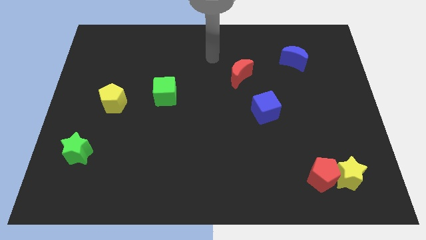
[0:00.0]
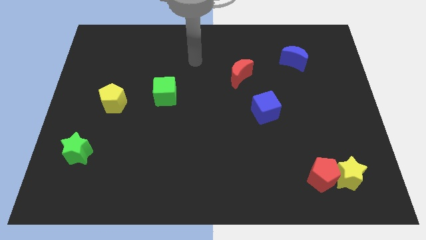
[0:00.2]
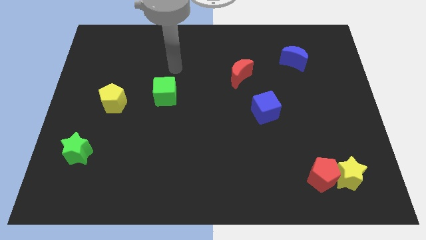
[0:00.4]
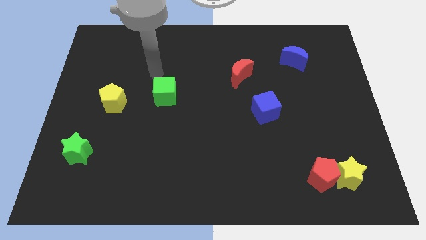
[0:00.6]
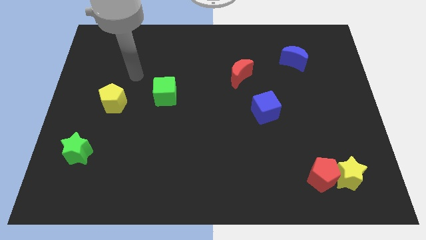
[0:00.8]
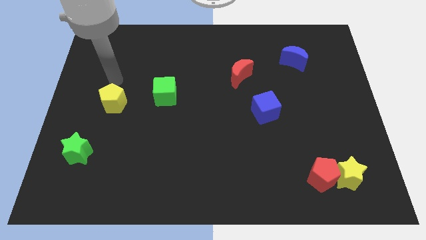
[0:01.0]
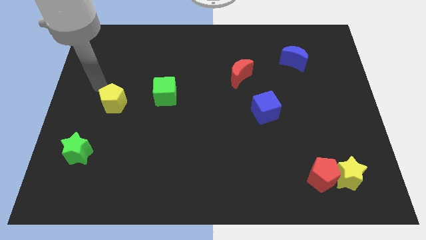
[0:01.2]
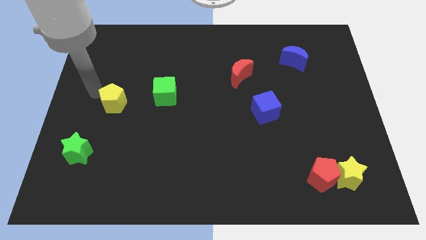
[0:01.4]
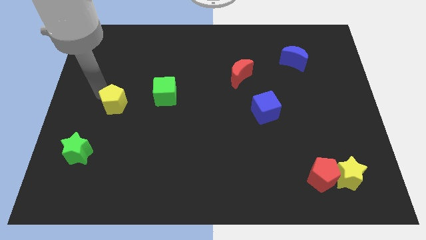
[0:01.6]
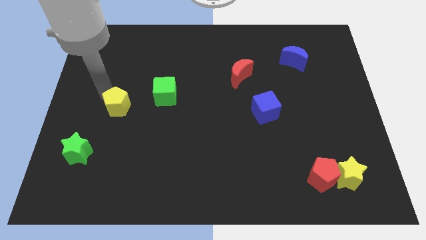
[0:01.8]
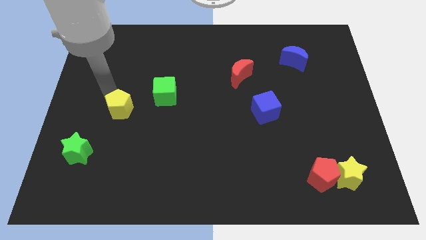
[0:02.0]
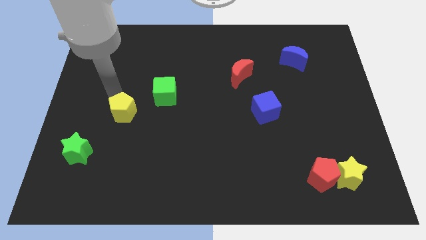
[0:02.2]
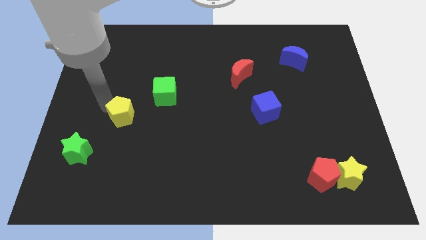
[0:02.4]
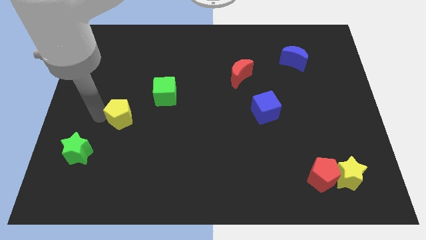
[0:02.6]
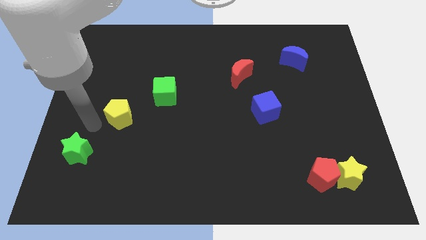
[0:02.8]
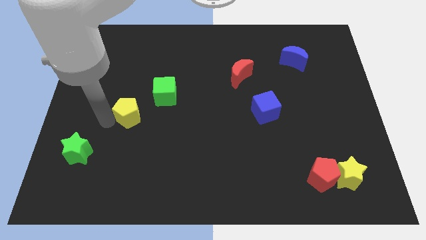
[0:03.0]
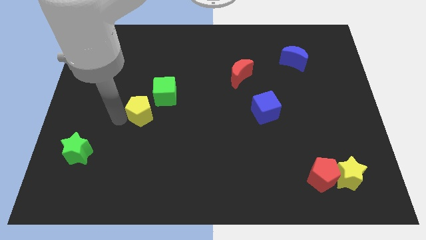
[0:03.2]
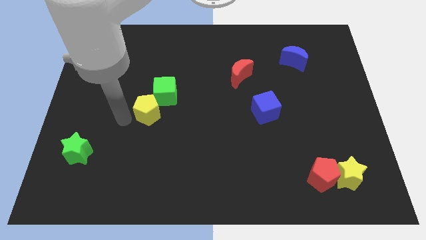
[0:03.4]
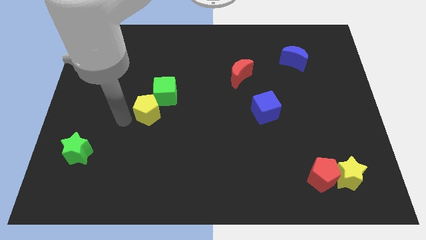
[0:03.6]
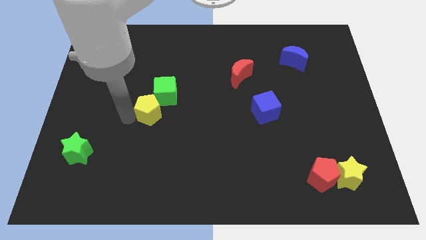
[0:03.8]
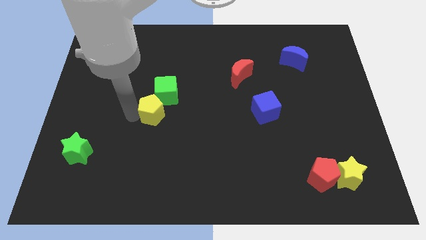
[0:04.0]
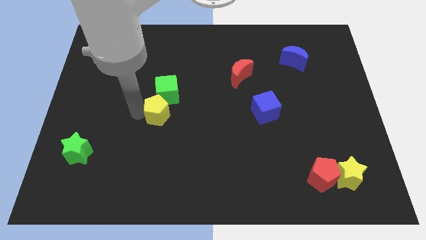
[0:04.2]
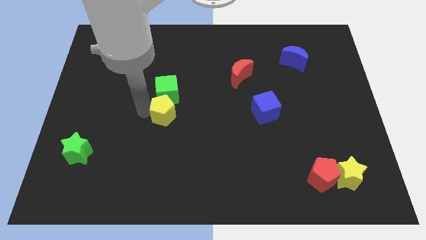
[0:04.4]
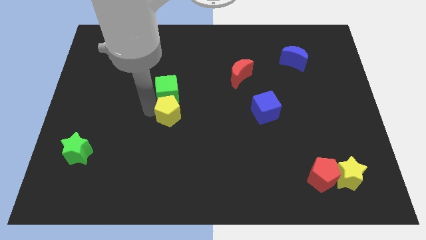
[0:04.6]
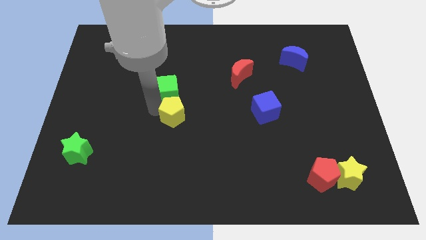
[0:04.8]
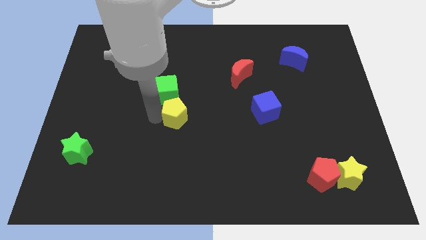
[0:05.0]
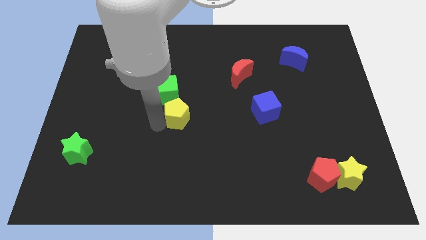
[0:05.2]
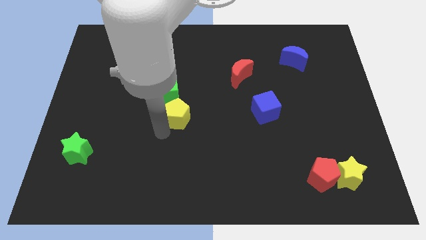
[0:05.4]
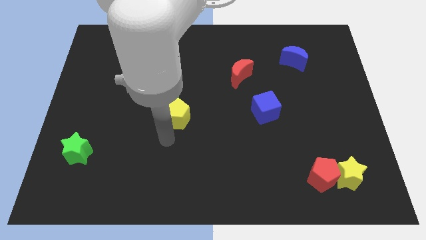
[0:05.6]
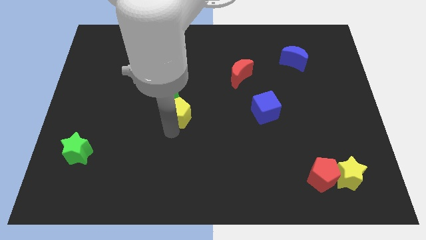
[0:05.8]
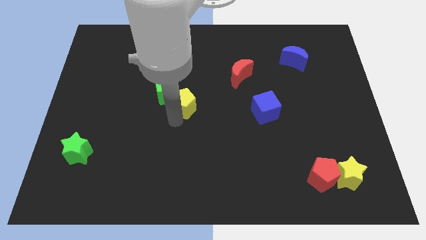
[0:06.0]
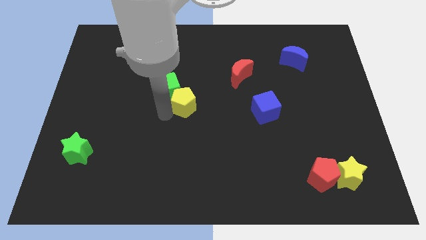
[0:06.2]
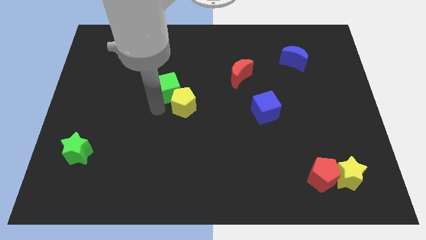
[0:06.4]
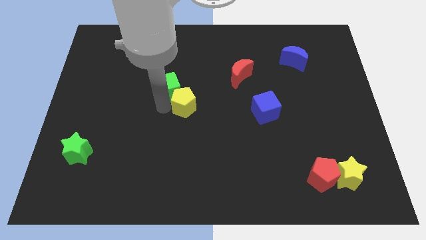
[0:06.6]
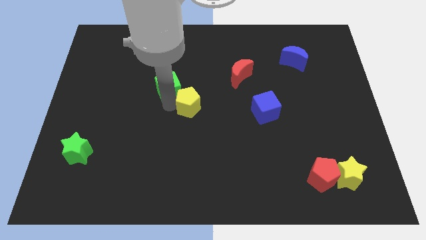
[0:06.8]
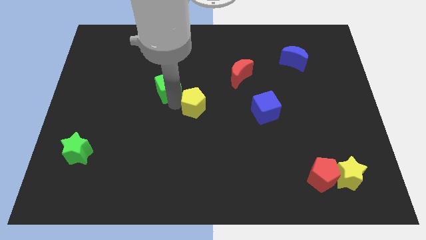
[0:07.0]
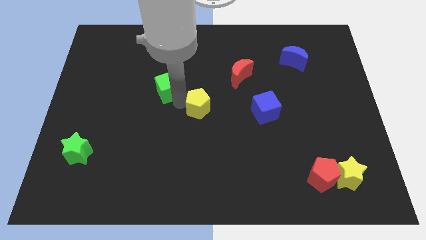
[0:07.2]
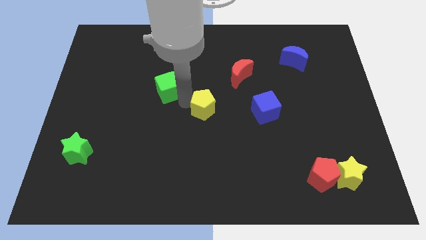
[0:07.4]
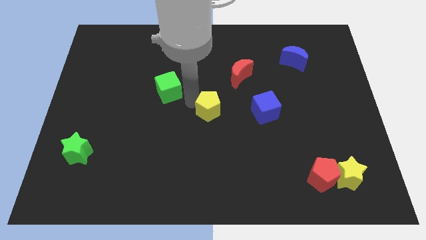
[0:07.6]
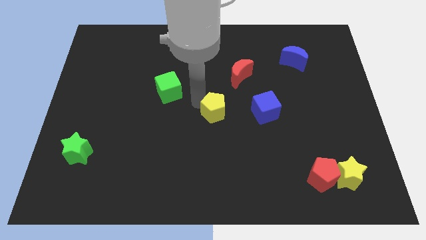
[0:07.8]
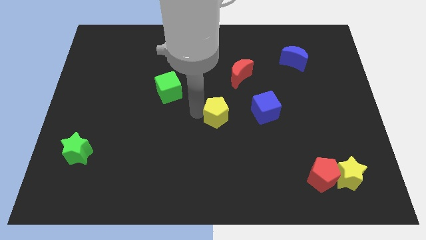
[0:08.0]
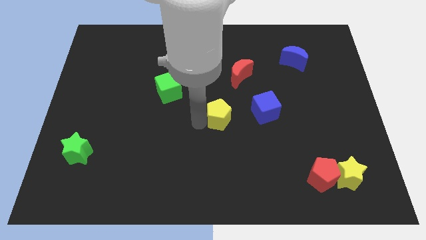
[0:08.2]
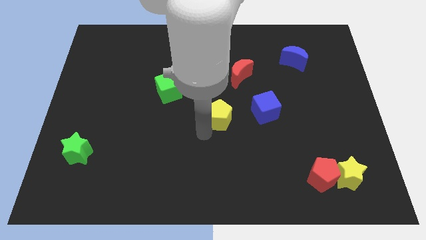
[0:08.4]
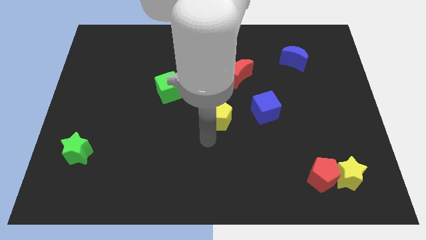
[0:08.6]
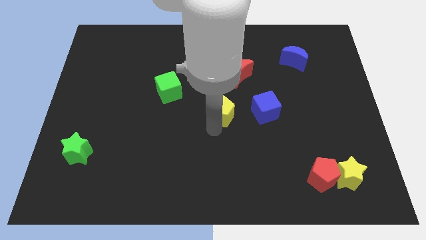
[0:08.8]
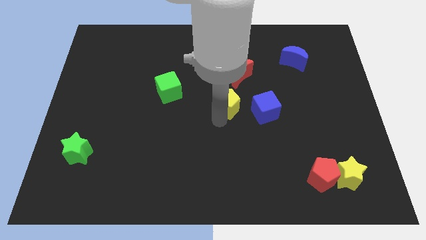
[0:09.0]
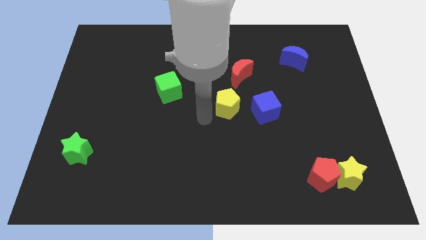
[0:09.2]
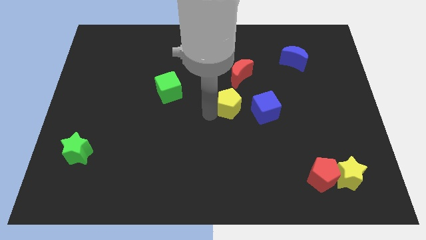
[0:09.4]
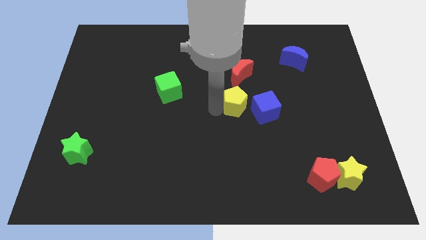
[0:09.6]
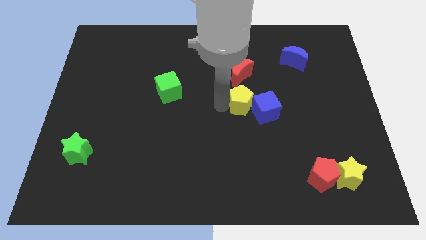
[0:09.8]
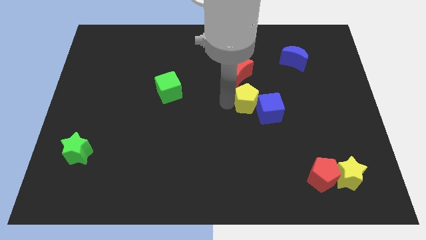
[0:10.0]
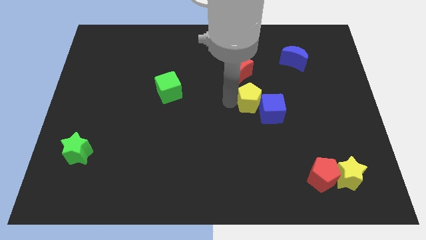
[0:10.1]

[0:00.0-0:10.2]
put the yellow pentagon to the bottom right of the red moon

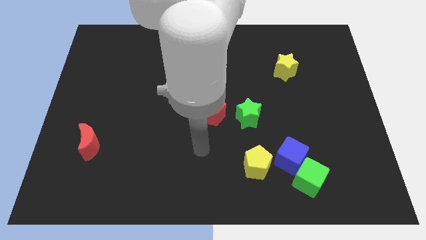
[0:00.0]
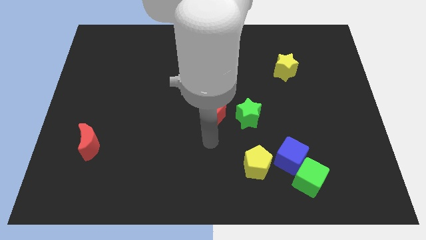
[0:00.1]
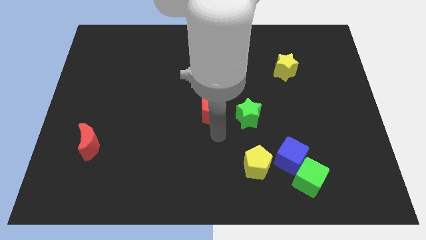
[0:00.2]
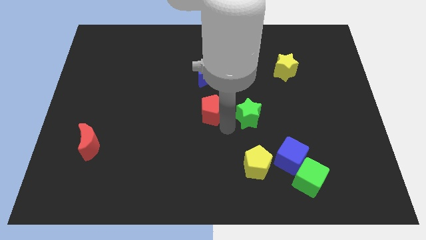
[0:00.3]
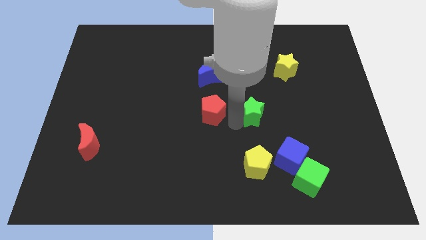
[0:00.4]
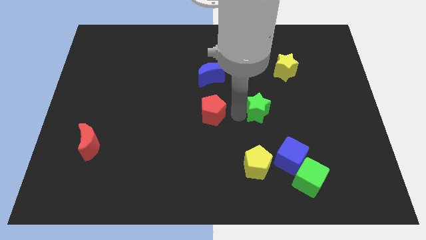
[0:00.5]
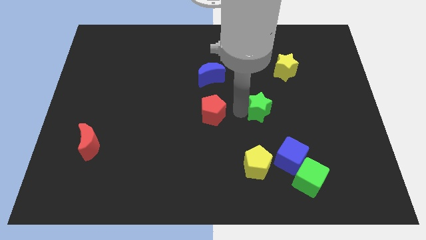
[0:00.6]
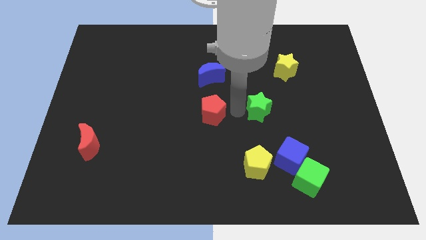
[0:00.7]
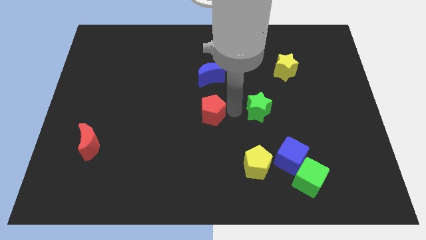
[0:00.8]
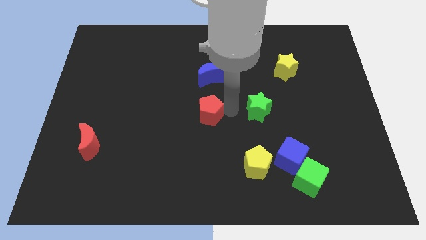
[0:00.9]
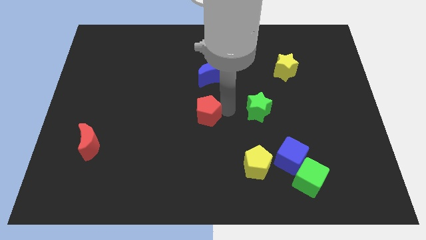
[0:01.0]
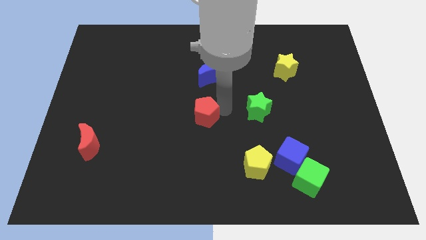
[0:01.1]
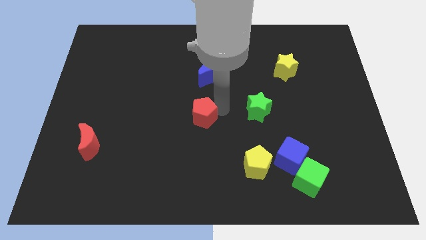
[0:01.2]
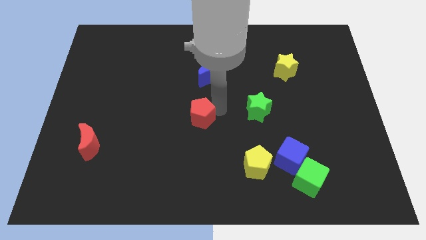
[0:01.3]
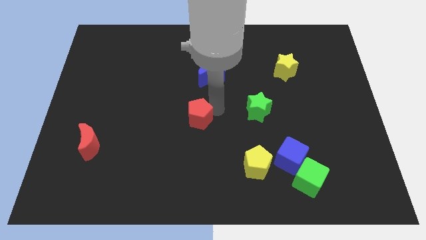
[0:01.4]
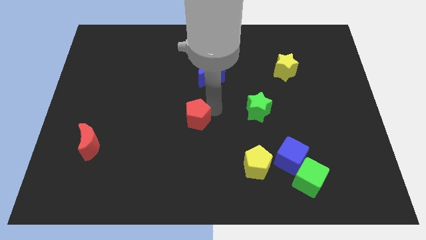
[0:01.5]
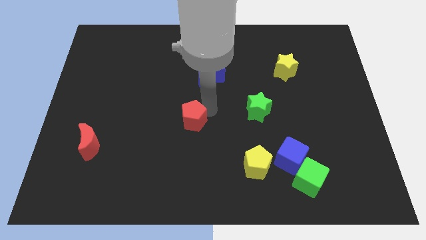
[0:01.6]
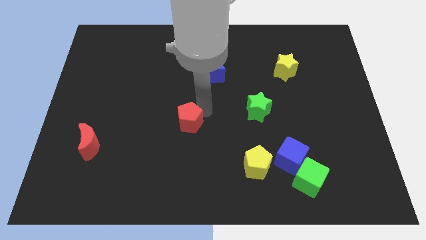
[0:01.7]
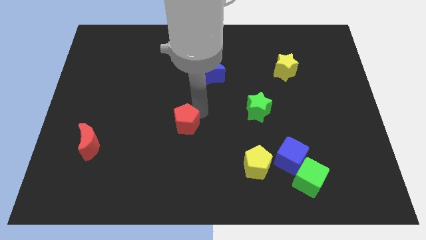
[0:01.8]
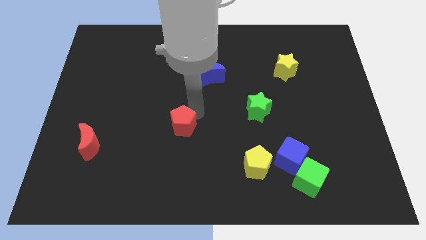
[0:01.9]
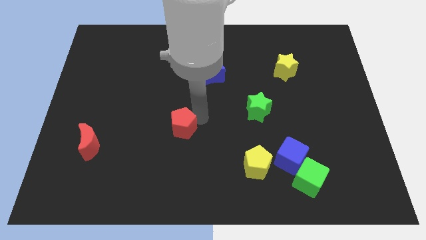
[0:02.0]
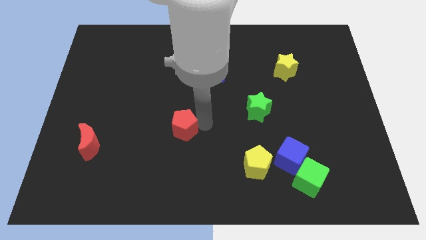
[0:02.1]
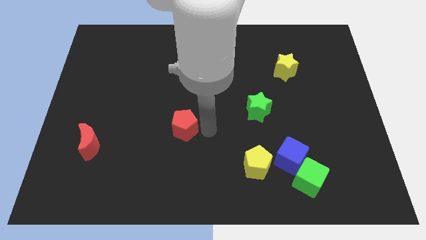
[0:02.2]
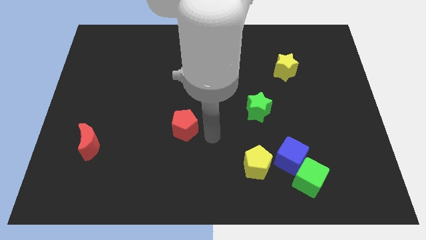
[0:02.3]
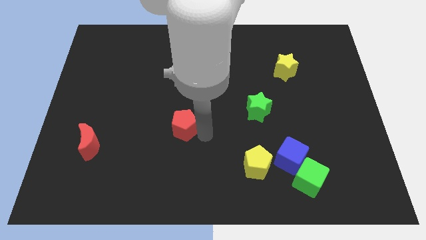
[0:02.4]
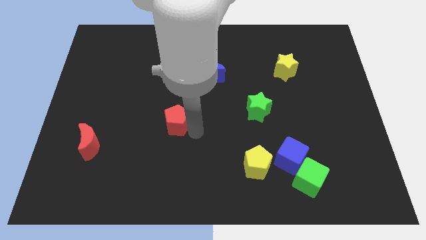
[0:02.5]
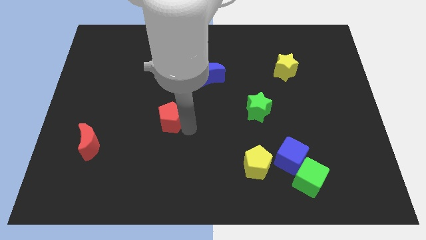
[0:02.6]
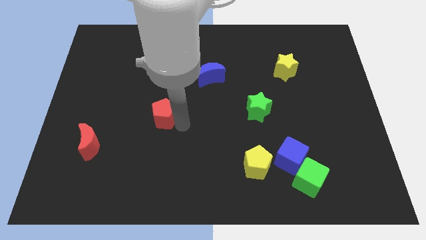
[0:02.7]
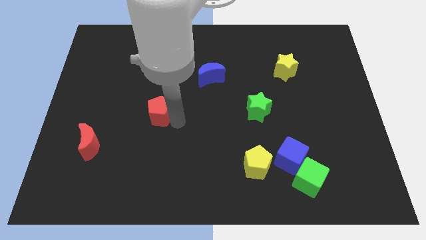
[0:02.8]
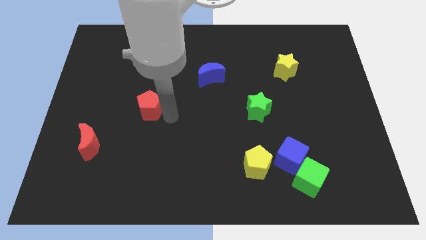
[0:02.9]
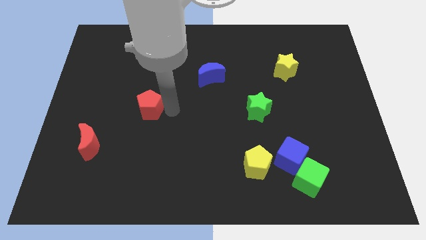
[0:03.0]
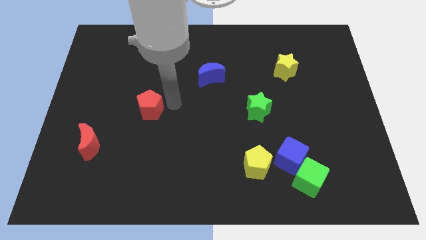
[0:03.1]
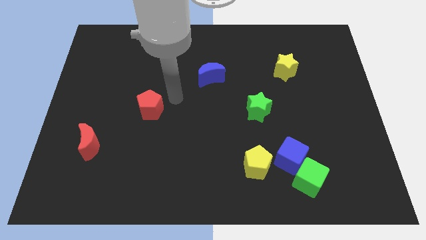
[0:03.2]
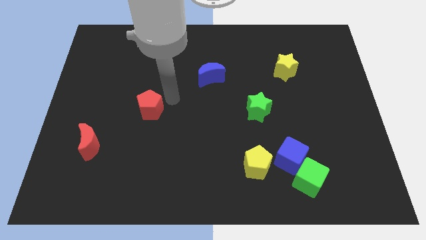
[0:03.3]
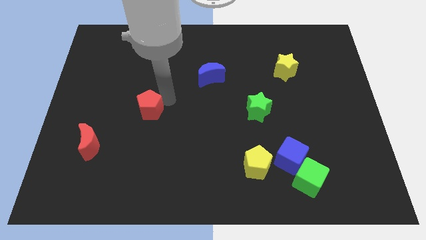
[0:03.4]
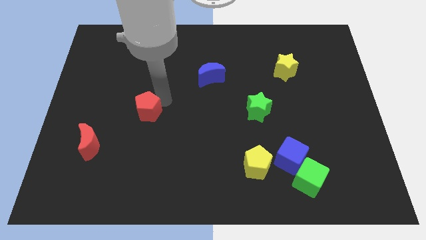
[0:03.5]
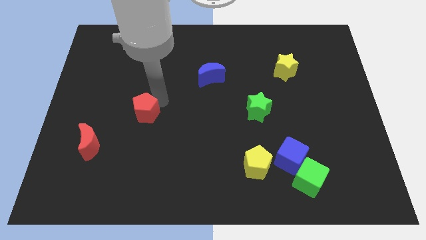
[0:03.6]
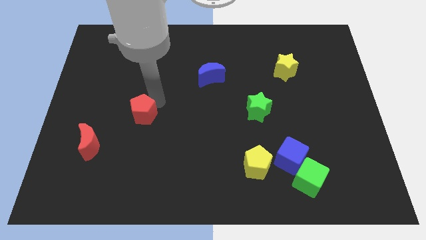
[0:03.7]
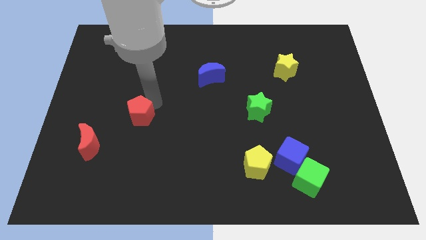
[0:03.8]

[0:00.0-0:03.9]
push the red pentagon to the top right side of the red moon
